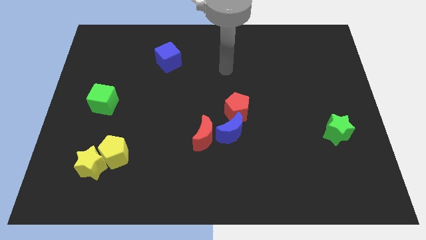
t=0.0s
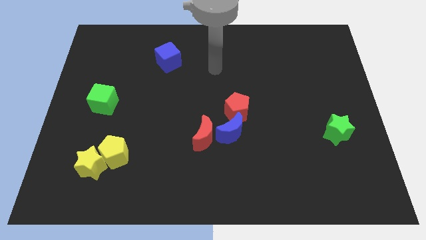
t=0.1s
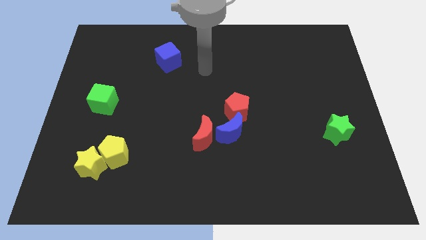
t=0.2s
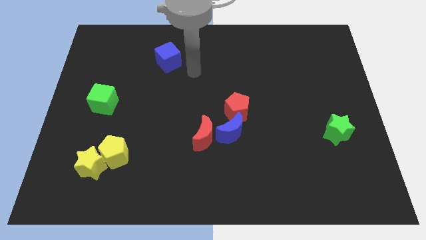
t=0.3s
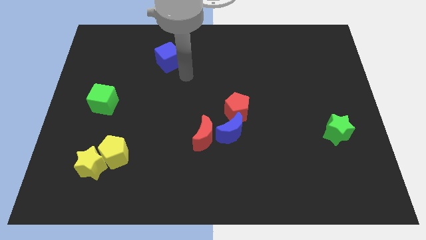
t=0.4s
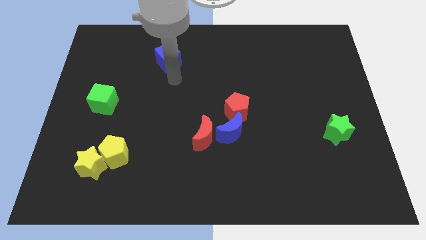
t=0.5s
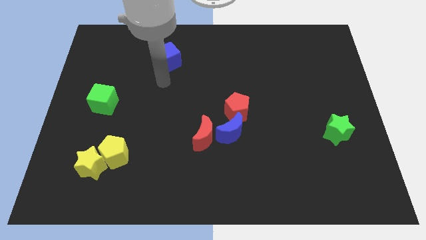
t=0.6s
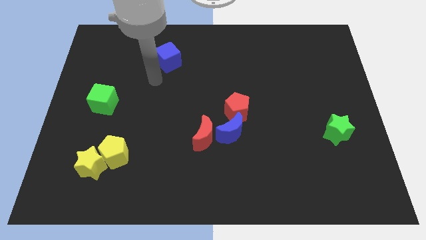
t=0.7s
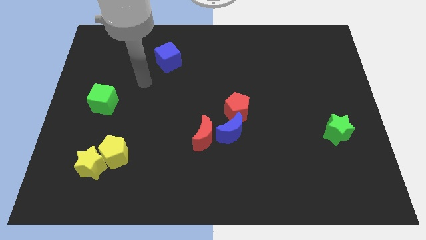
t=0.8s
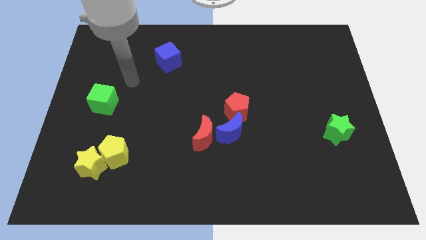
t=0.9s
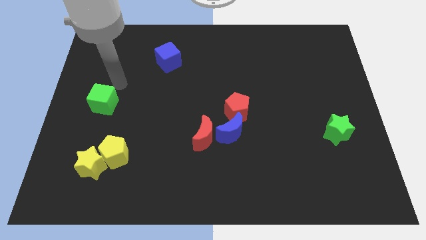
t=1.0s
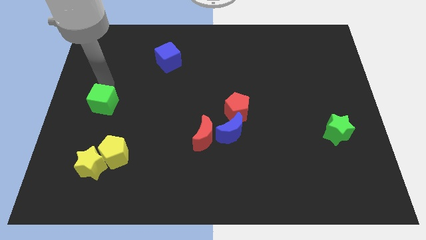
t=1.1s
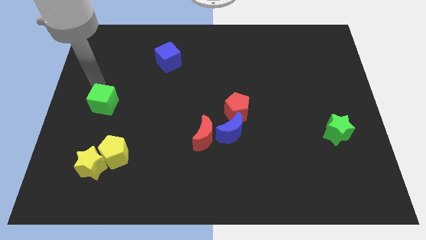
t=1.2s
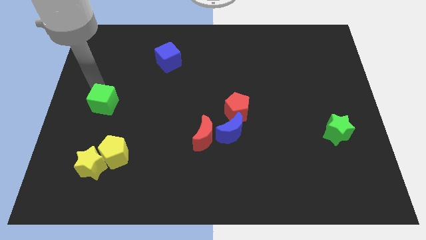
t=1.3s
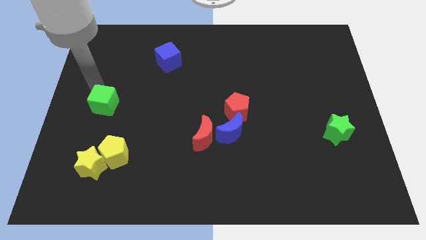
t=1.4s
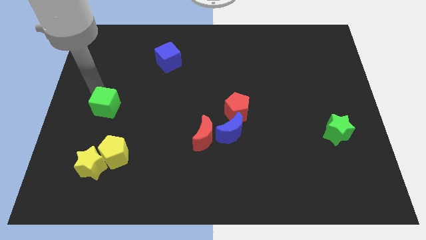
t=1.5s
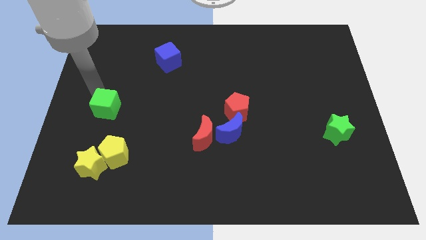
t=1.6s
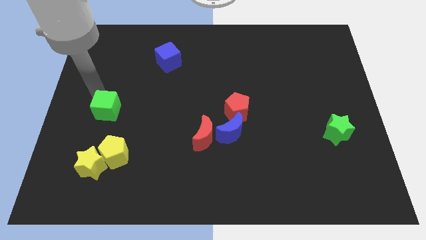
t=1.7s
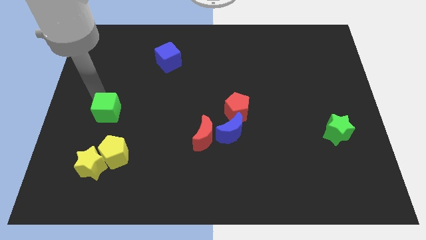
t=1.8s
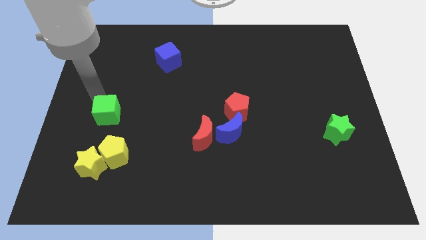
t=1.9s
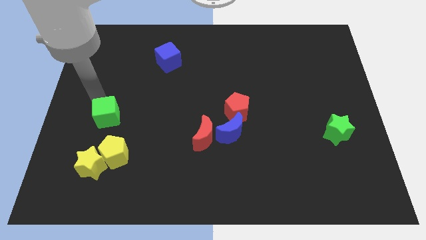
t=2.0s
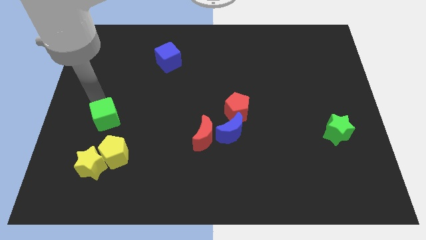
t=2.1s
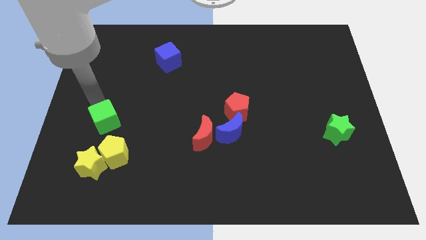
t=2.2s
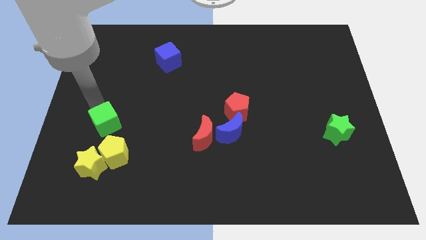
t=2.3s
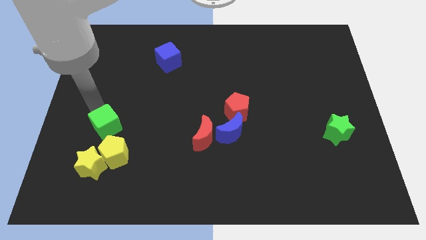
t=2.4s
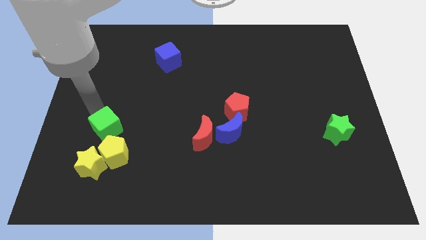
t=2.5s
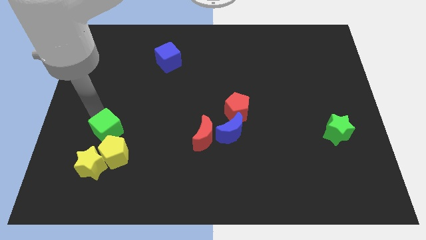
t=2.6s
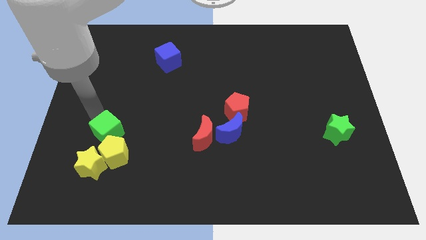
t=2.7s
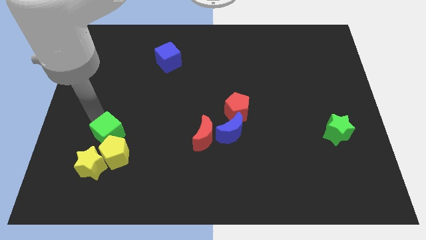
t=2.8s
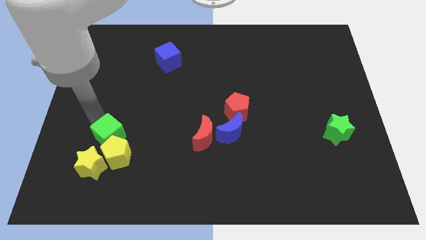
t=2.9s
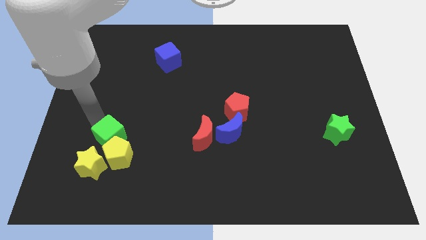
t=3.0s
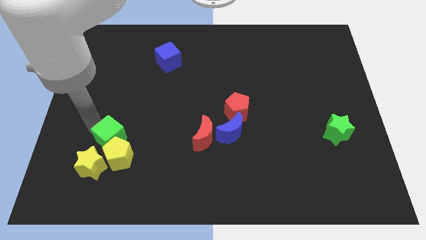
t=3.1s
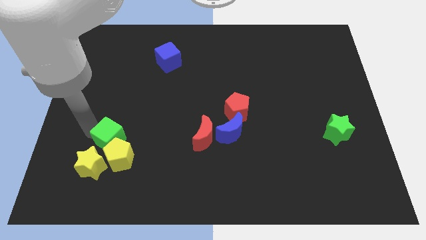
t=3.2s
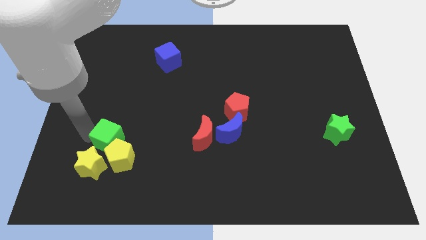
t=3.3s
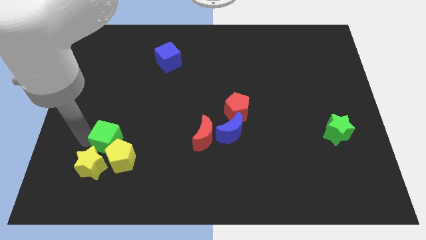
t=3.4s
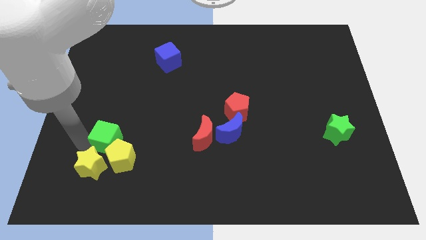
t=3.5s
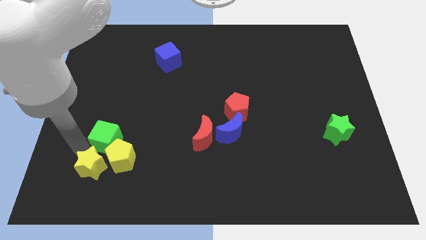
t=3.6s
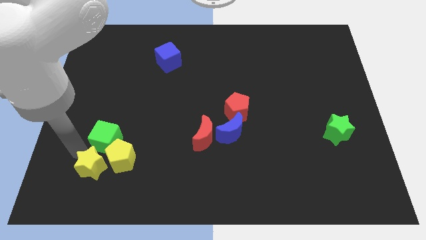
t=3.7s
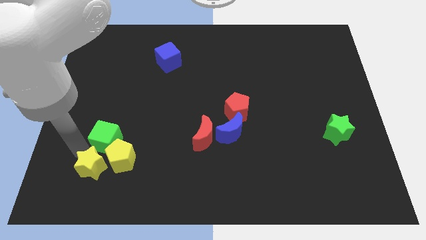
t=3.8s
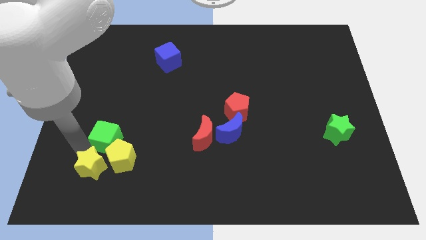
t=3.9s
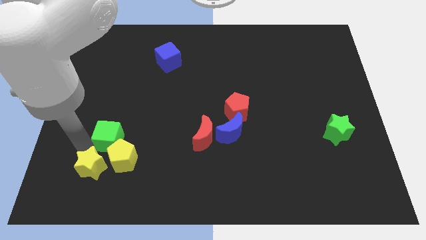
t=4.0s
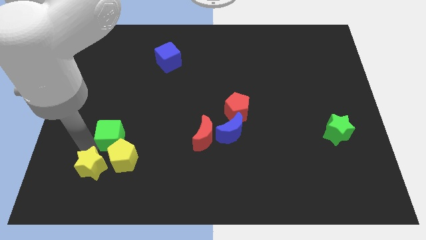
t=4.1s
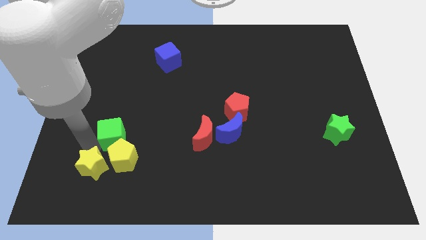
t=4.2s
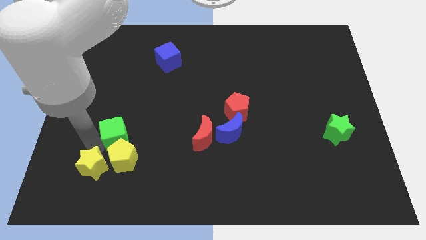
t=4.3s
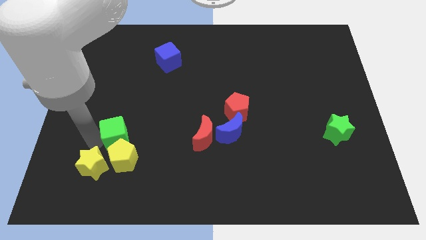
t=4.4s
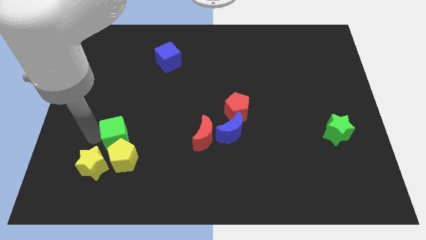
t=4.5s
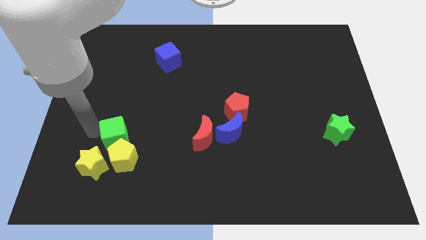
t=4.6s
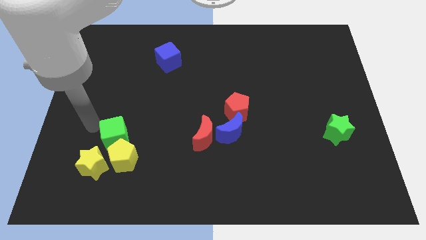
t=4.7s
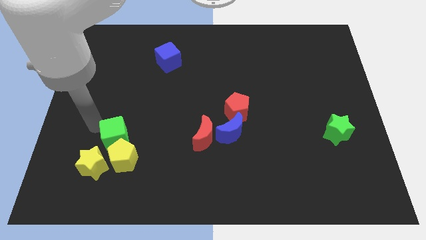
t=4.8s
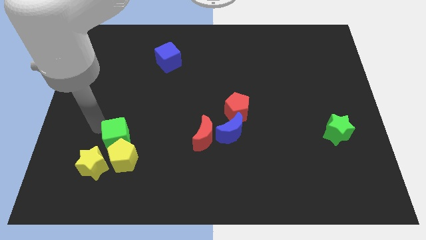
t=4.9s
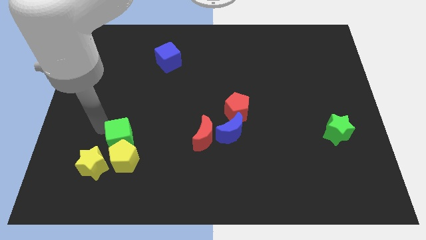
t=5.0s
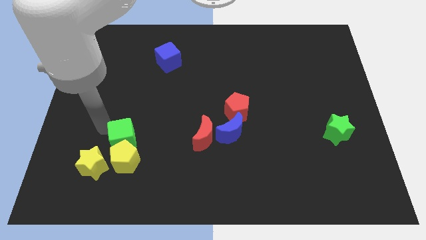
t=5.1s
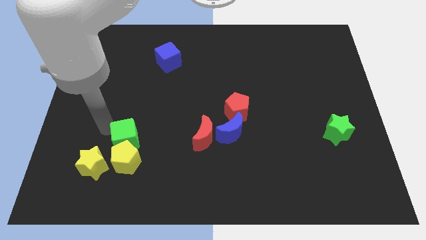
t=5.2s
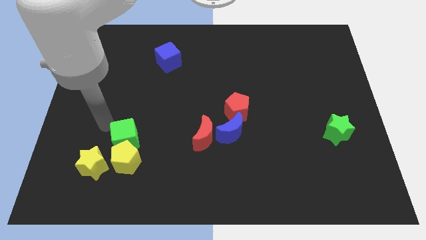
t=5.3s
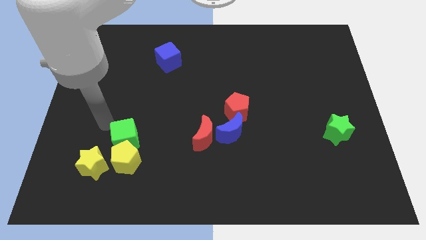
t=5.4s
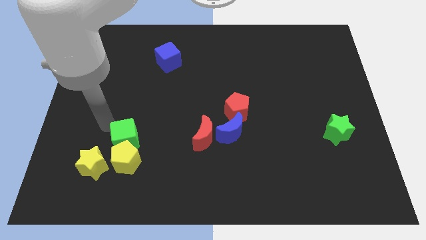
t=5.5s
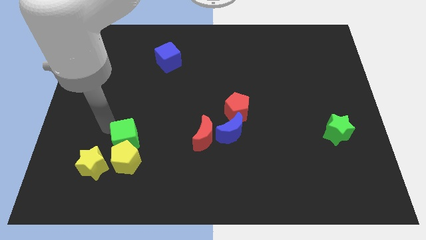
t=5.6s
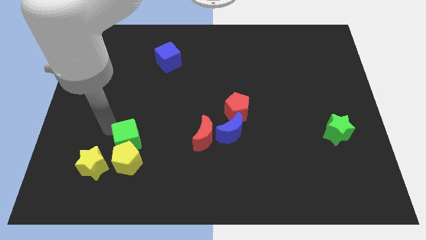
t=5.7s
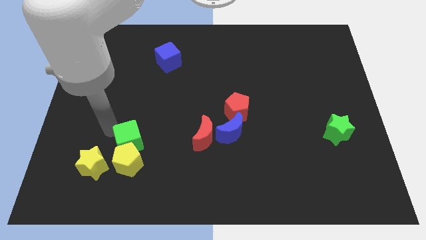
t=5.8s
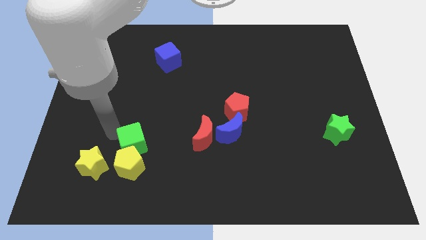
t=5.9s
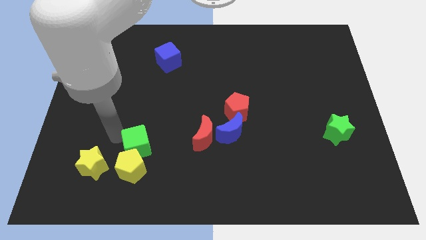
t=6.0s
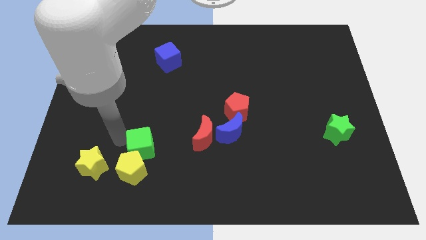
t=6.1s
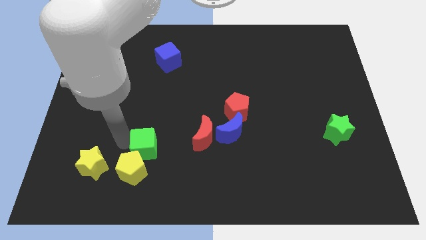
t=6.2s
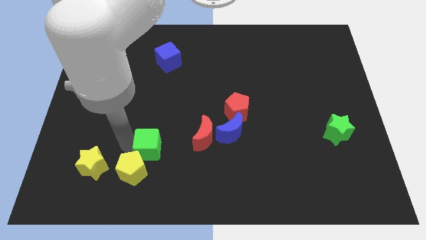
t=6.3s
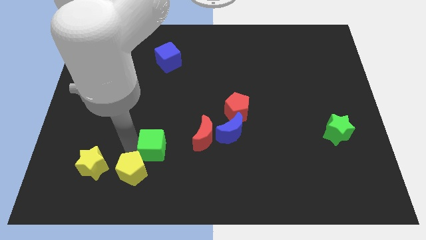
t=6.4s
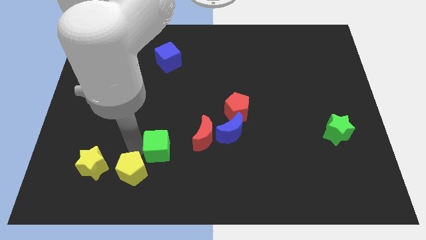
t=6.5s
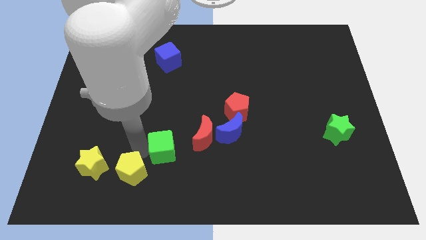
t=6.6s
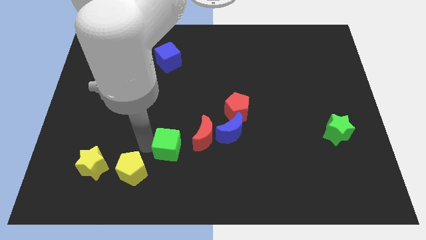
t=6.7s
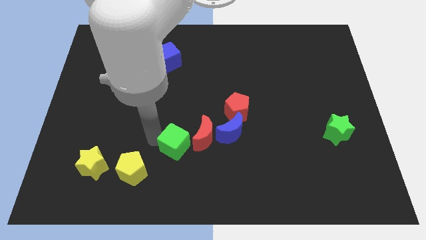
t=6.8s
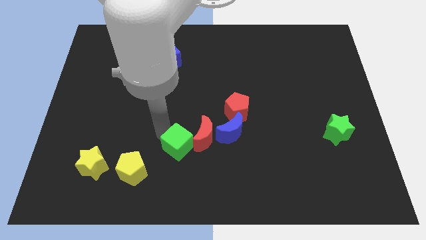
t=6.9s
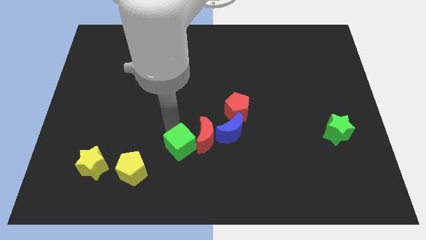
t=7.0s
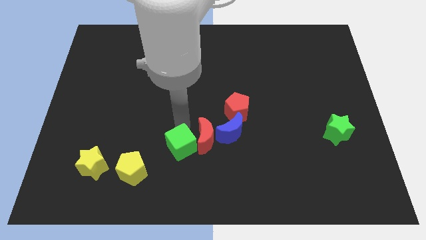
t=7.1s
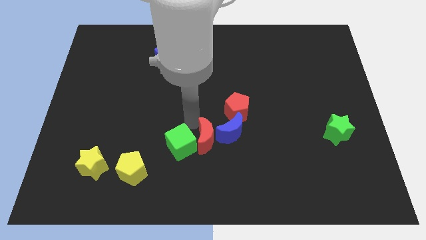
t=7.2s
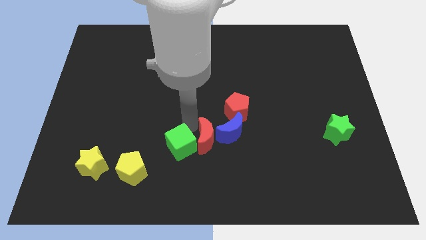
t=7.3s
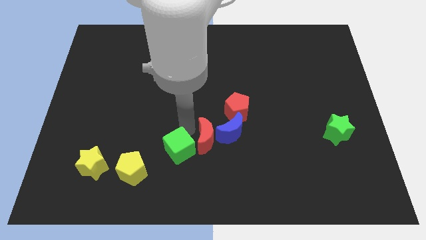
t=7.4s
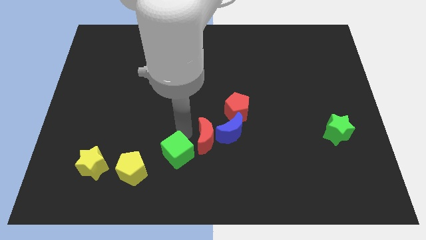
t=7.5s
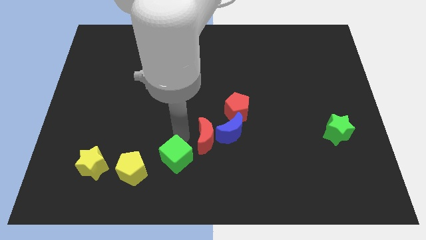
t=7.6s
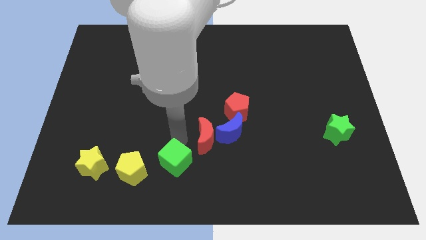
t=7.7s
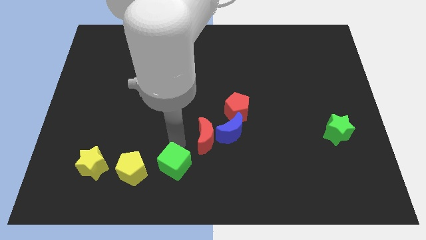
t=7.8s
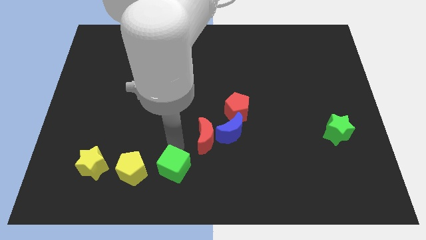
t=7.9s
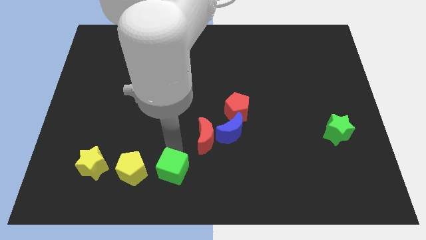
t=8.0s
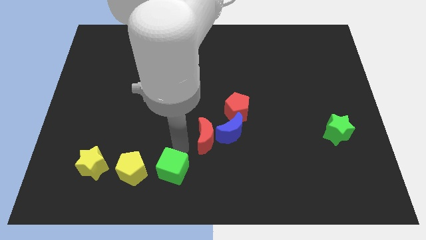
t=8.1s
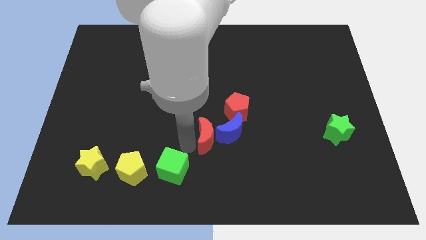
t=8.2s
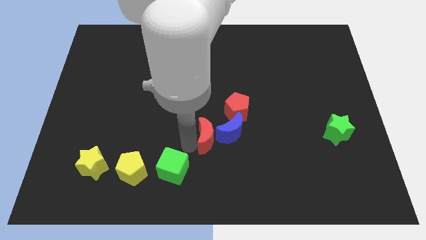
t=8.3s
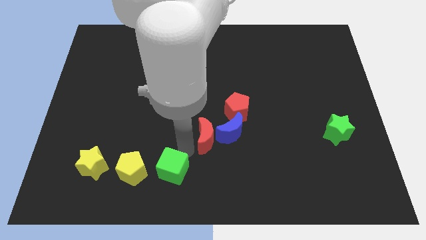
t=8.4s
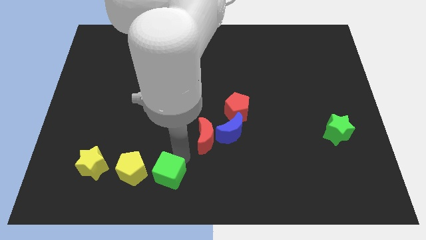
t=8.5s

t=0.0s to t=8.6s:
slide the green cube diagonally down and to the right of the yellow pentagon
